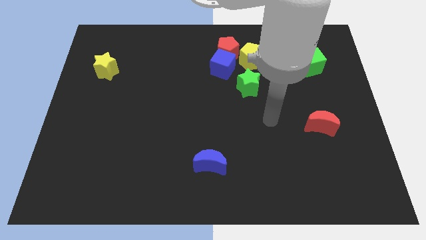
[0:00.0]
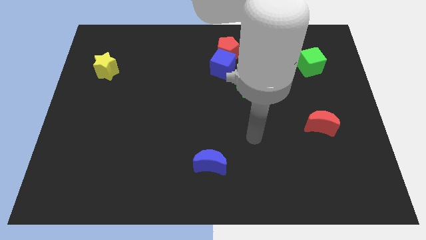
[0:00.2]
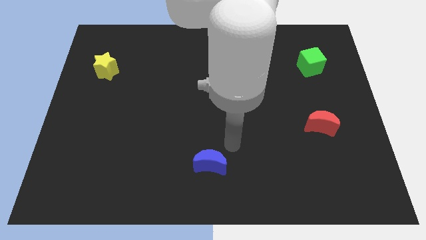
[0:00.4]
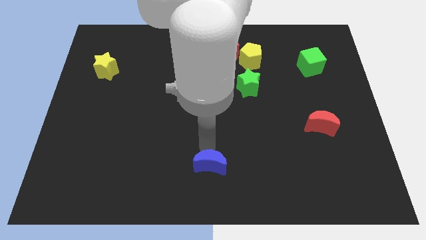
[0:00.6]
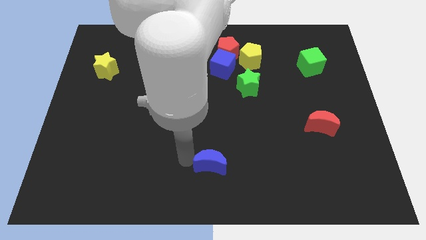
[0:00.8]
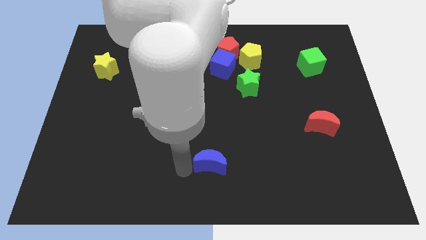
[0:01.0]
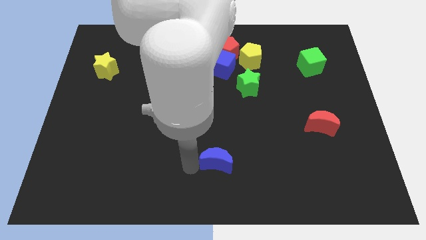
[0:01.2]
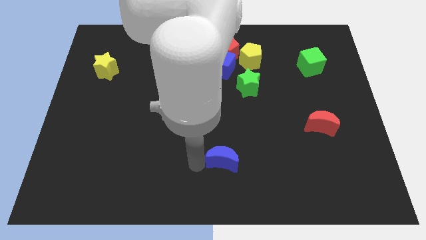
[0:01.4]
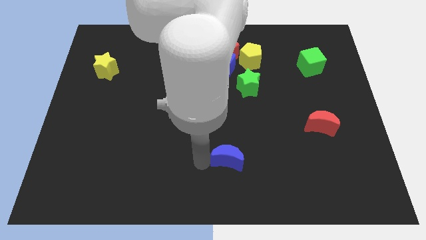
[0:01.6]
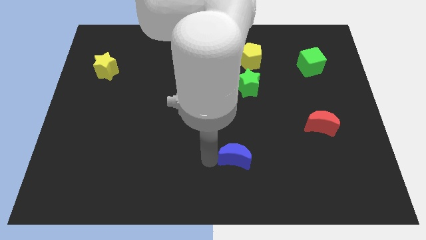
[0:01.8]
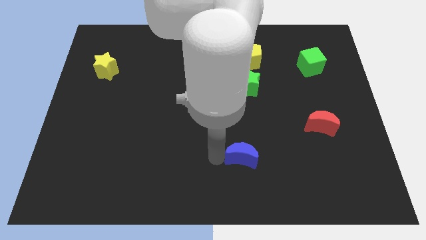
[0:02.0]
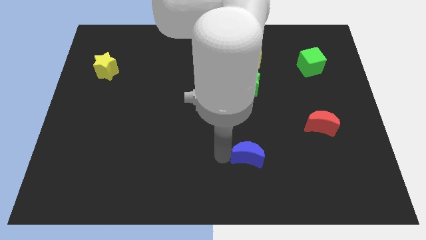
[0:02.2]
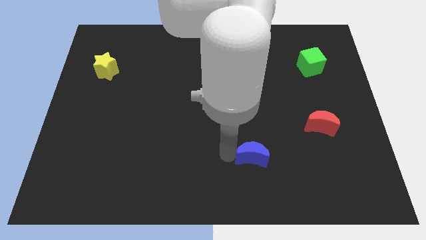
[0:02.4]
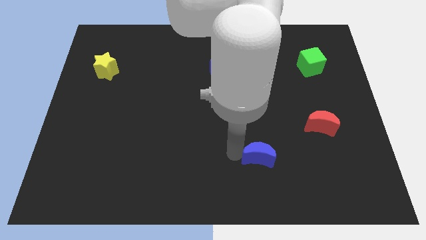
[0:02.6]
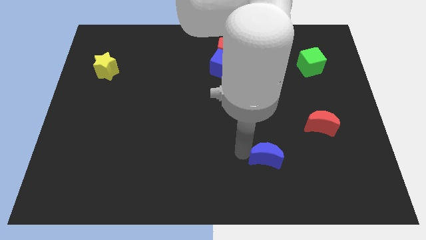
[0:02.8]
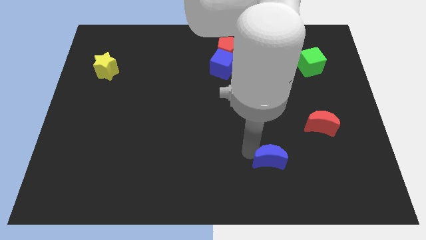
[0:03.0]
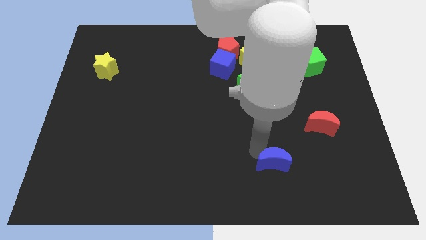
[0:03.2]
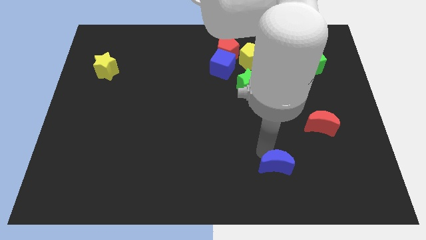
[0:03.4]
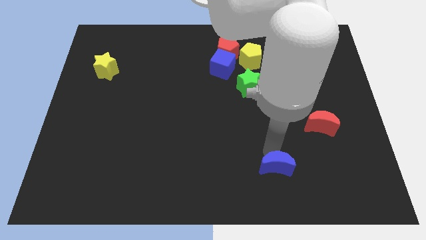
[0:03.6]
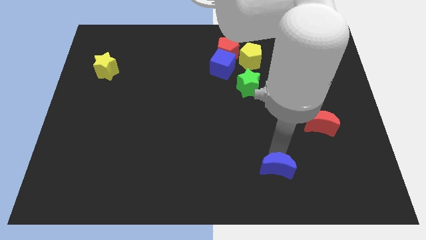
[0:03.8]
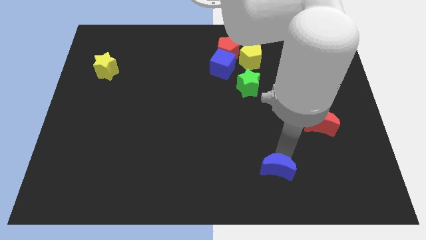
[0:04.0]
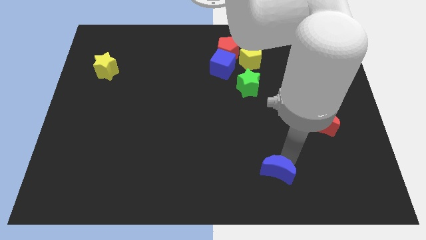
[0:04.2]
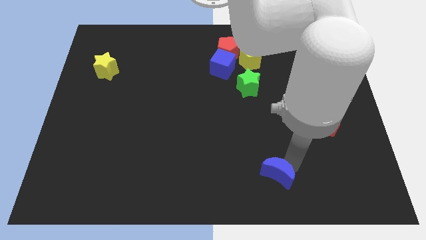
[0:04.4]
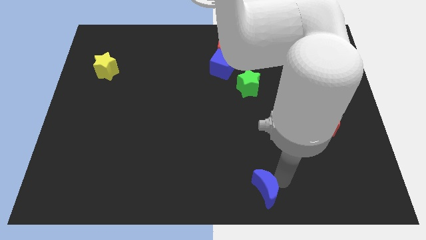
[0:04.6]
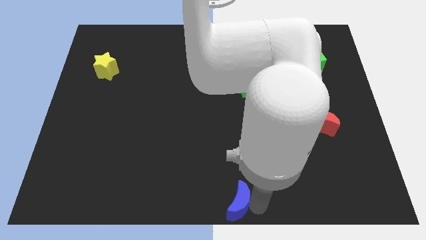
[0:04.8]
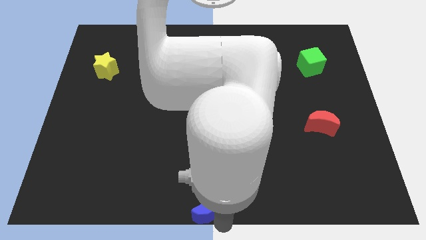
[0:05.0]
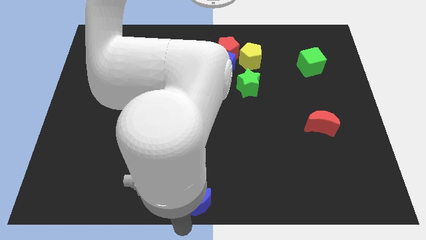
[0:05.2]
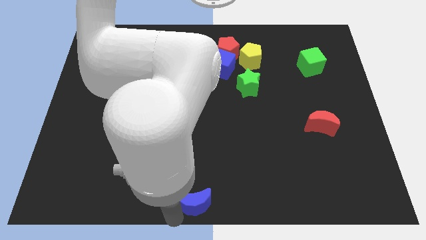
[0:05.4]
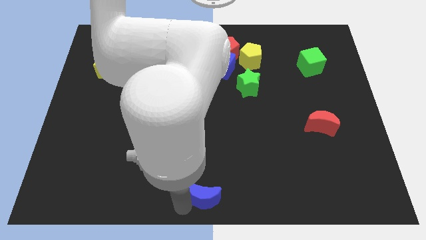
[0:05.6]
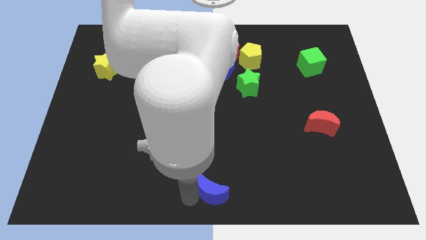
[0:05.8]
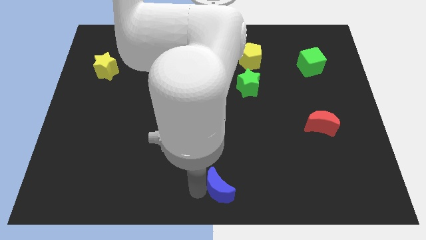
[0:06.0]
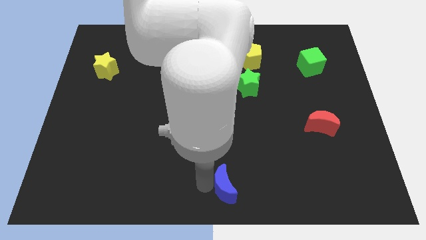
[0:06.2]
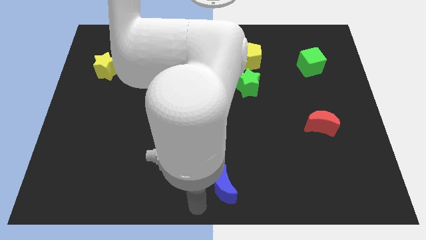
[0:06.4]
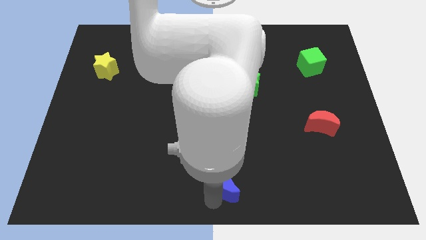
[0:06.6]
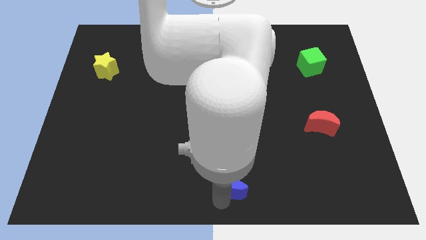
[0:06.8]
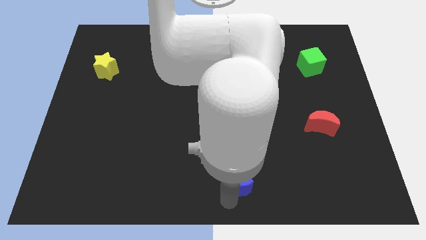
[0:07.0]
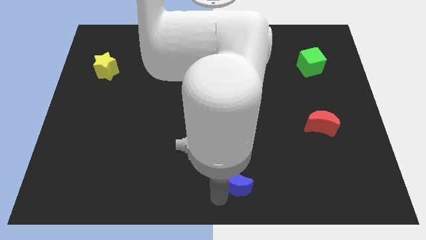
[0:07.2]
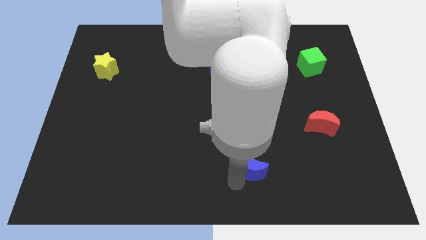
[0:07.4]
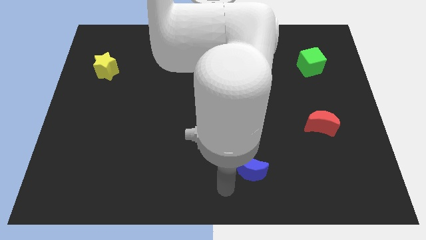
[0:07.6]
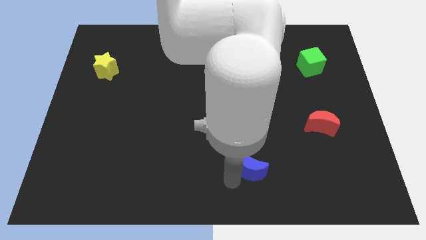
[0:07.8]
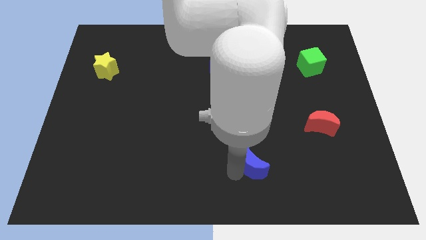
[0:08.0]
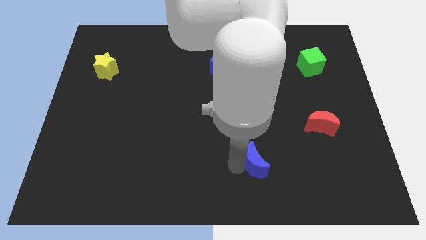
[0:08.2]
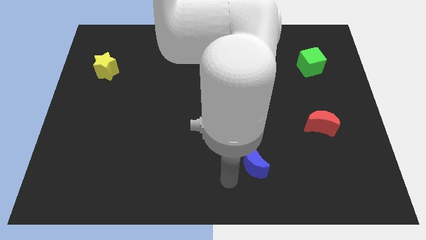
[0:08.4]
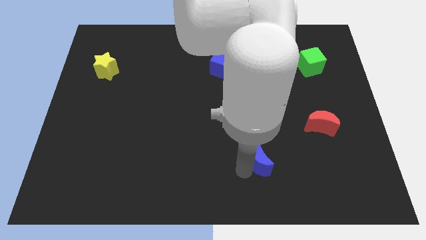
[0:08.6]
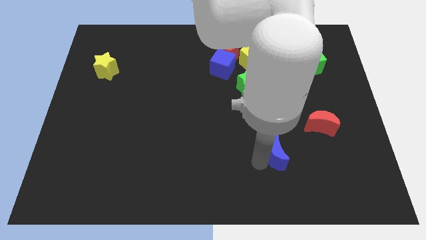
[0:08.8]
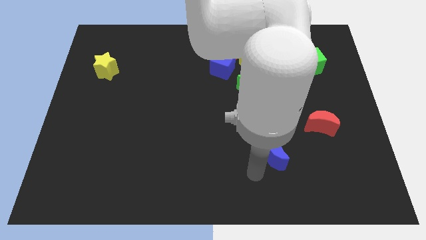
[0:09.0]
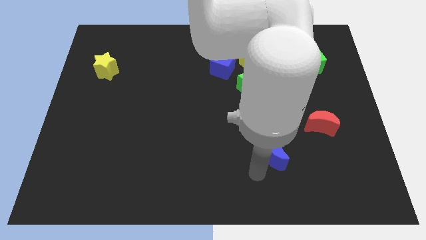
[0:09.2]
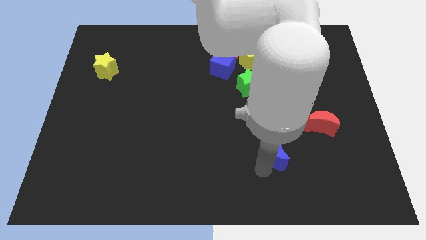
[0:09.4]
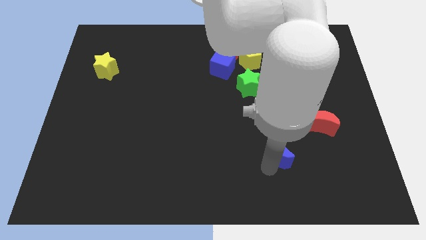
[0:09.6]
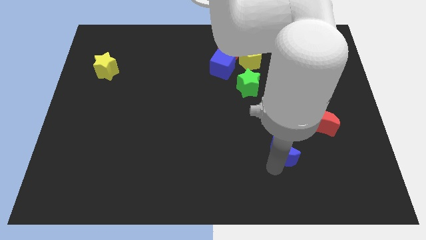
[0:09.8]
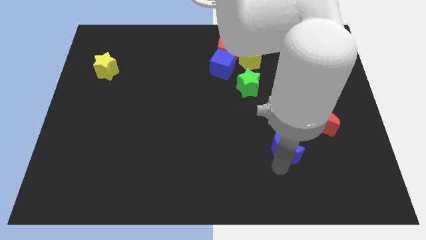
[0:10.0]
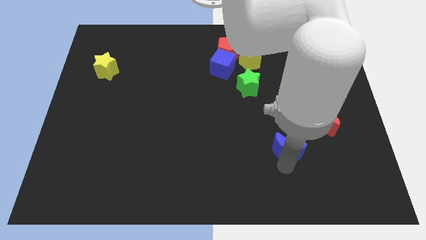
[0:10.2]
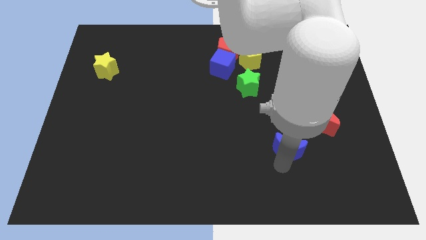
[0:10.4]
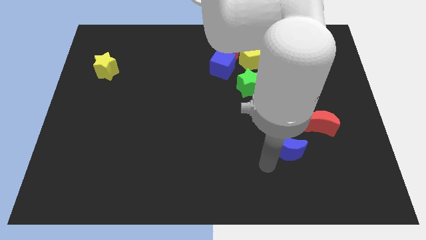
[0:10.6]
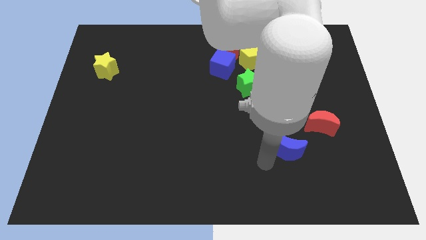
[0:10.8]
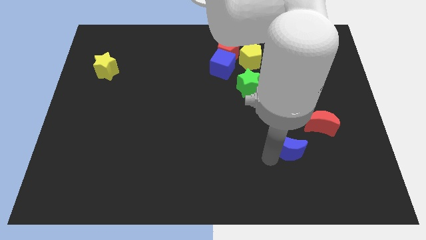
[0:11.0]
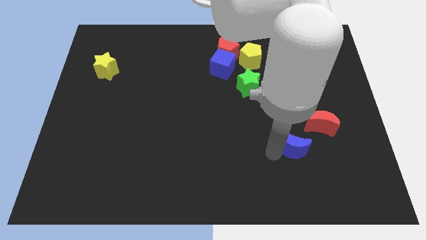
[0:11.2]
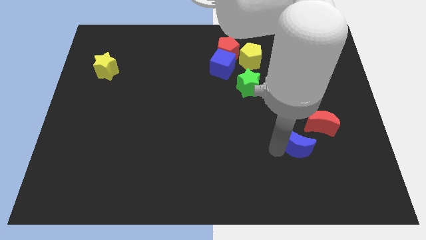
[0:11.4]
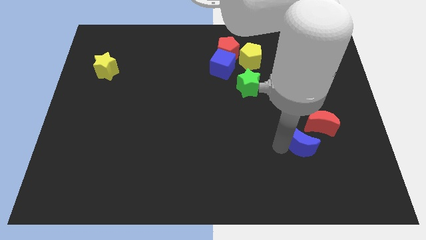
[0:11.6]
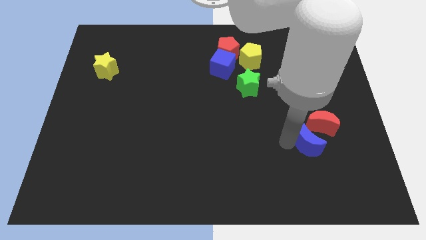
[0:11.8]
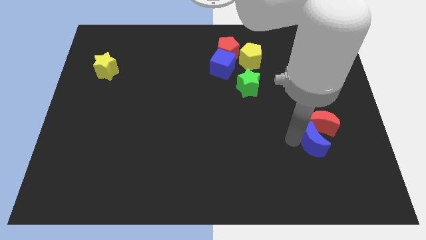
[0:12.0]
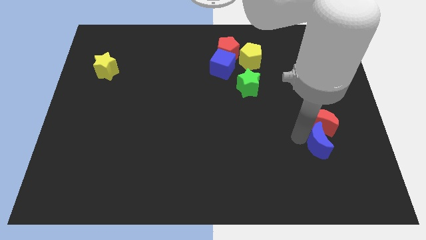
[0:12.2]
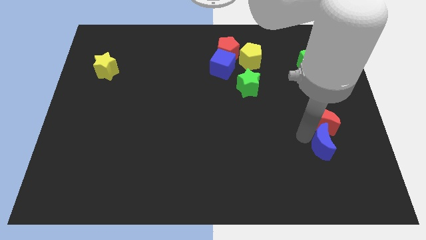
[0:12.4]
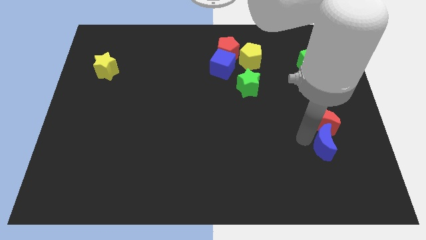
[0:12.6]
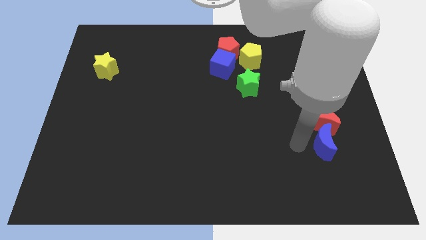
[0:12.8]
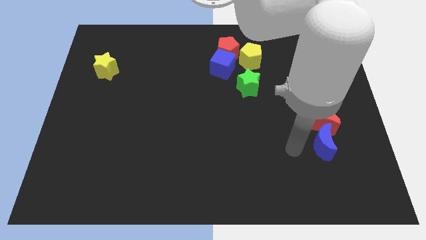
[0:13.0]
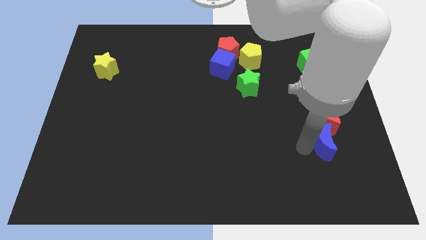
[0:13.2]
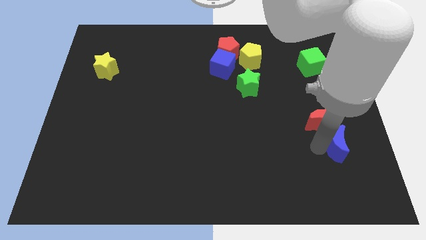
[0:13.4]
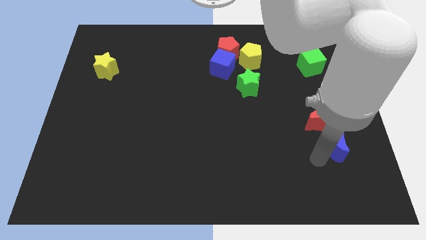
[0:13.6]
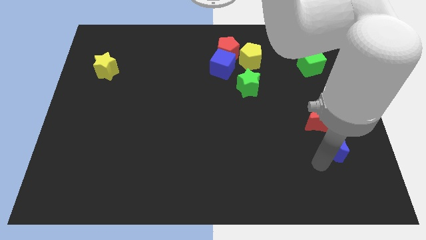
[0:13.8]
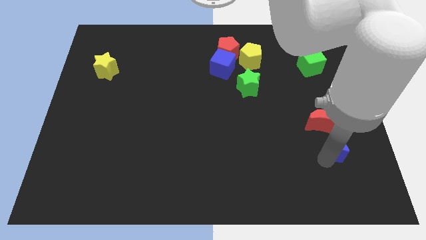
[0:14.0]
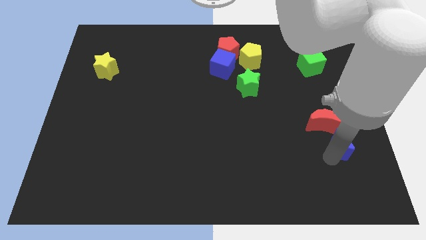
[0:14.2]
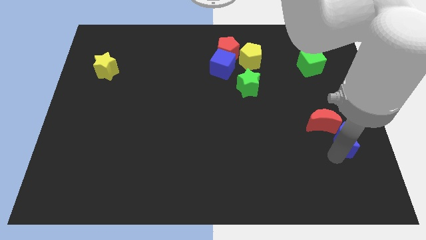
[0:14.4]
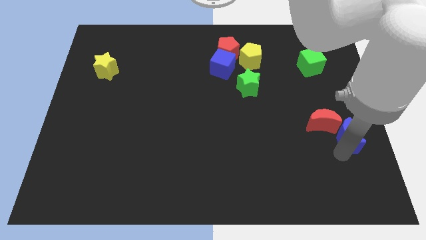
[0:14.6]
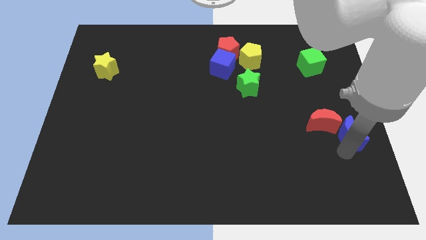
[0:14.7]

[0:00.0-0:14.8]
move the blue moon to the center right
